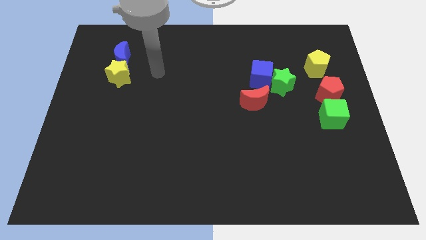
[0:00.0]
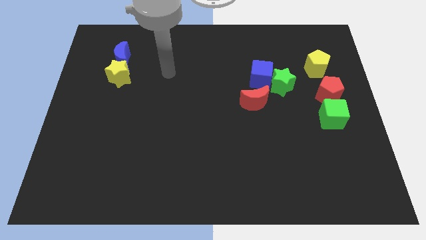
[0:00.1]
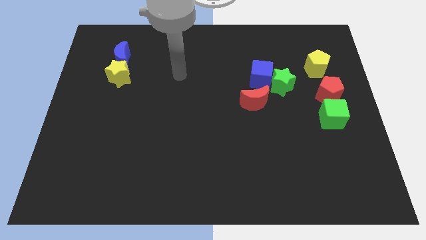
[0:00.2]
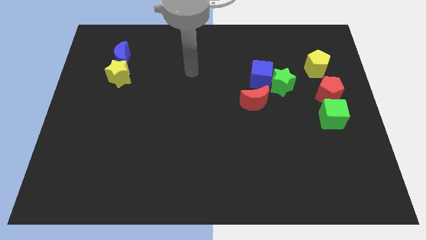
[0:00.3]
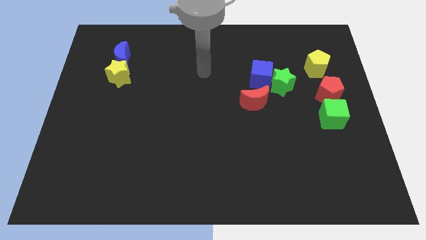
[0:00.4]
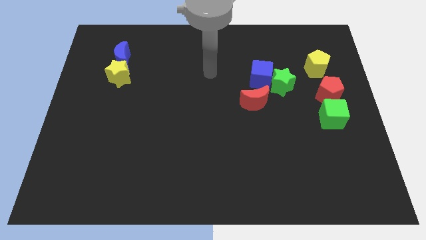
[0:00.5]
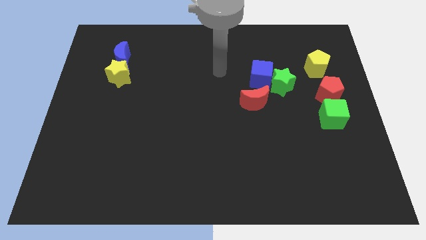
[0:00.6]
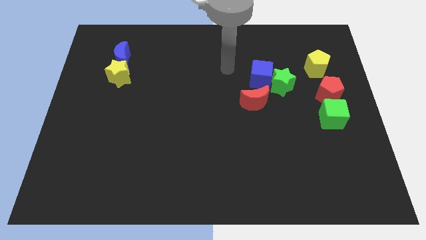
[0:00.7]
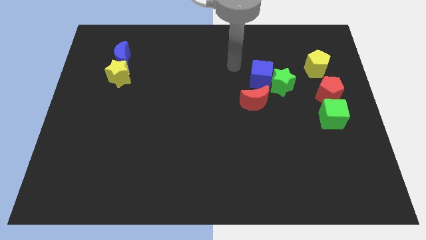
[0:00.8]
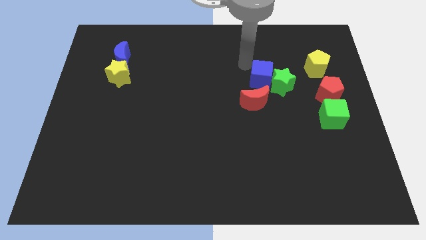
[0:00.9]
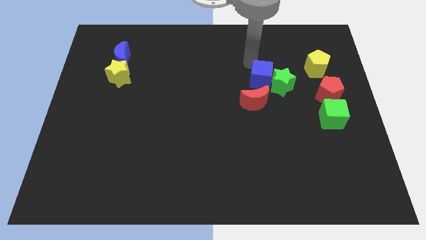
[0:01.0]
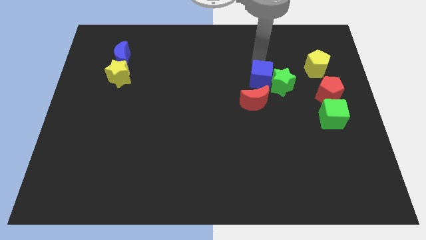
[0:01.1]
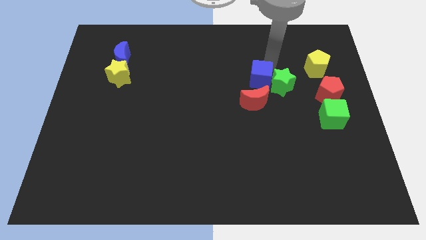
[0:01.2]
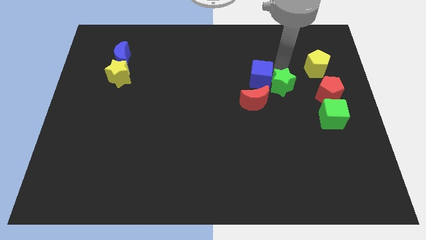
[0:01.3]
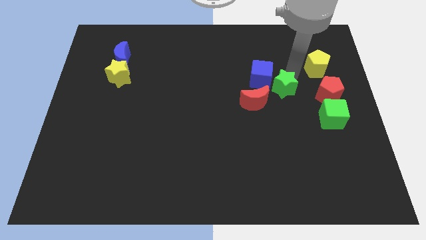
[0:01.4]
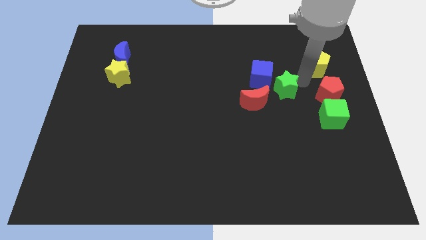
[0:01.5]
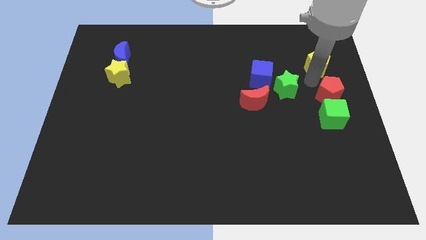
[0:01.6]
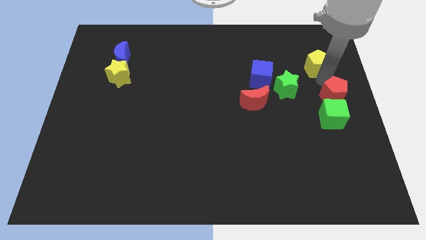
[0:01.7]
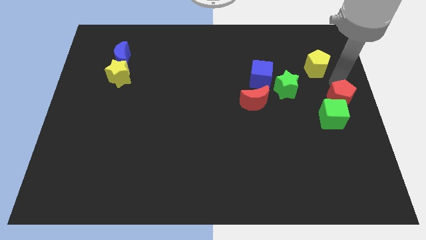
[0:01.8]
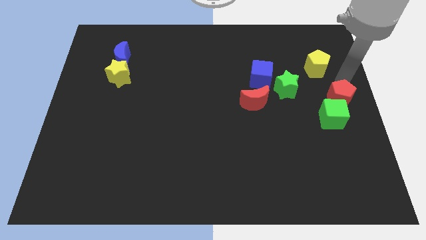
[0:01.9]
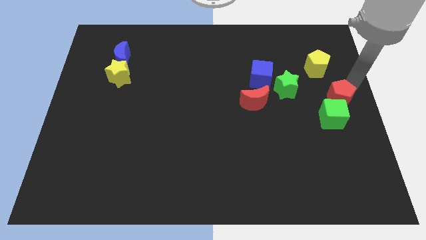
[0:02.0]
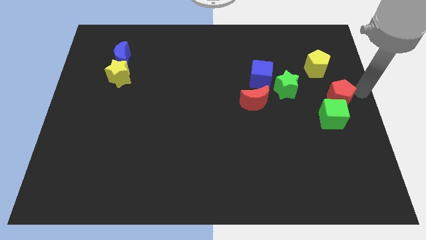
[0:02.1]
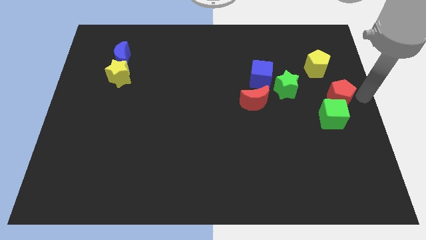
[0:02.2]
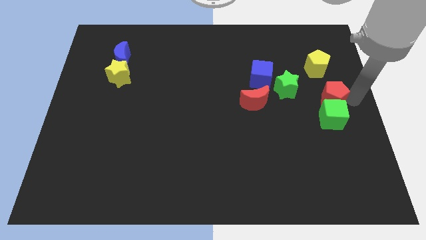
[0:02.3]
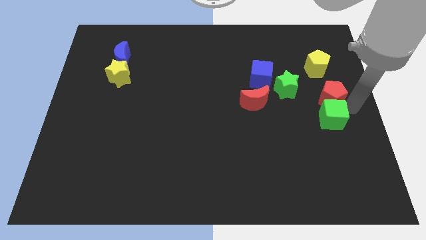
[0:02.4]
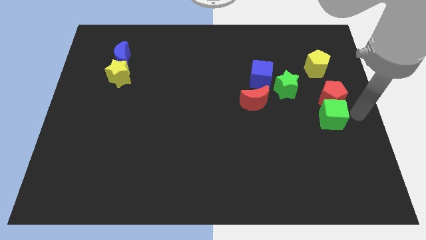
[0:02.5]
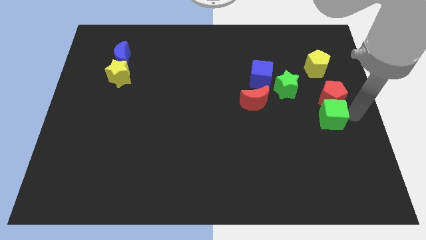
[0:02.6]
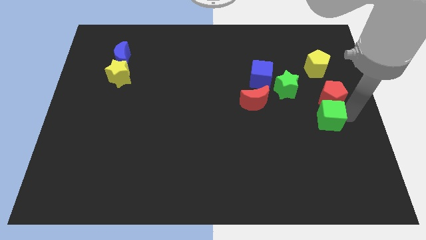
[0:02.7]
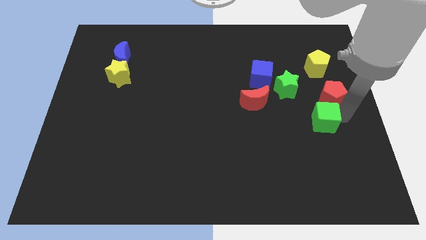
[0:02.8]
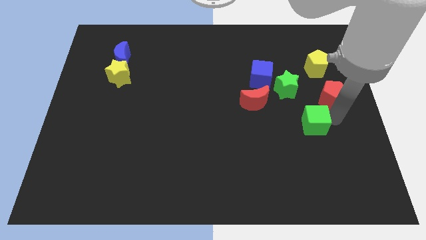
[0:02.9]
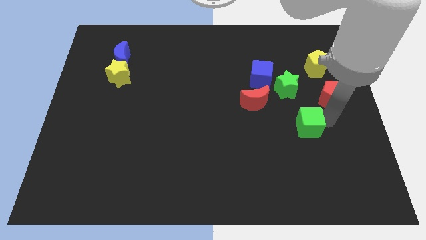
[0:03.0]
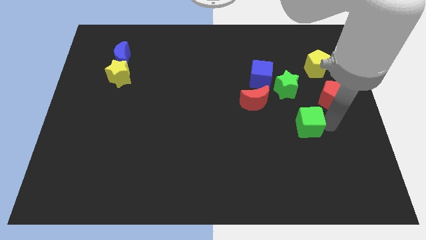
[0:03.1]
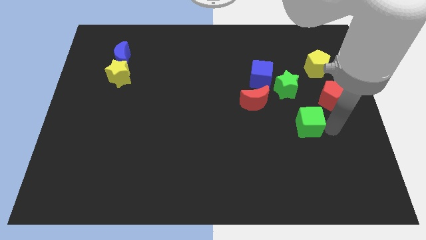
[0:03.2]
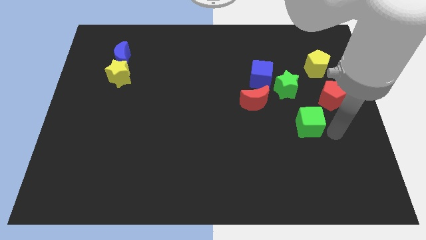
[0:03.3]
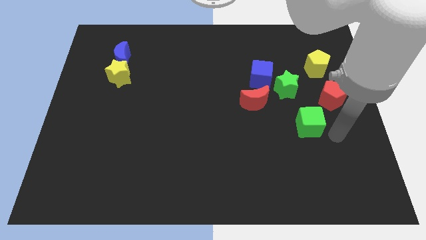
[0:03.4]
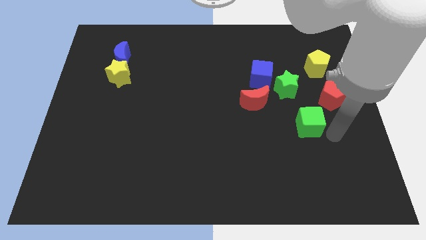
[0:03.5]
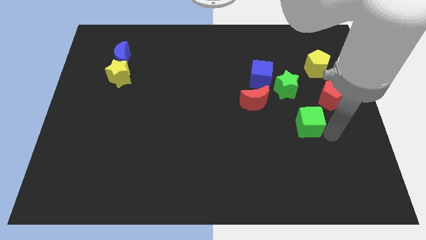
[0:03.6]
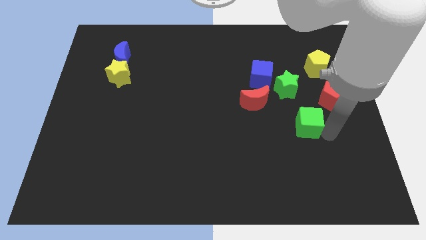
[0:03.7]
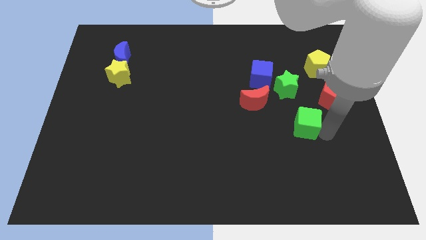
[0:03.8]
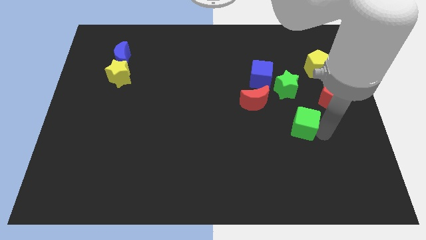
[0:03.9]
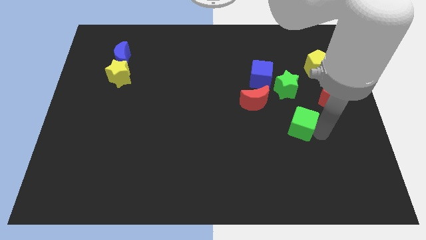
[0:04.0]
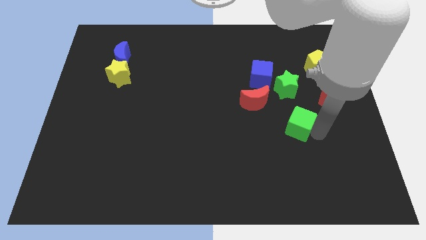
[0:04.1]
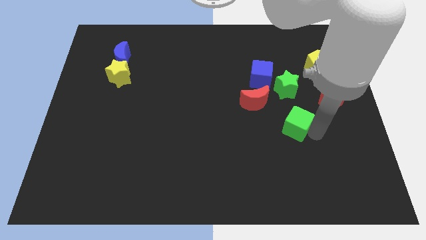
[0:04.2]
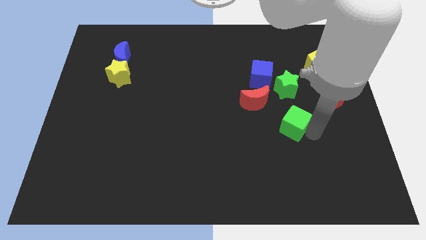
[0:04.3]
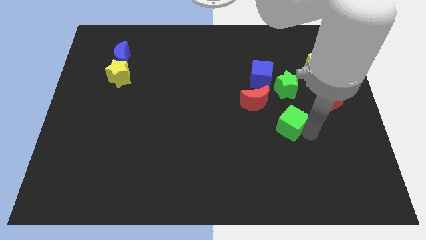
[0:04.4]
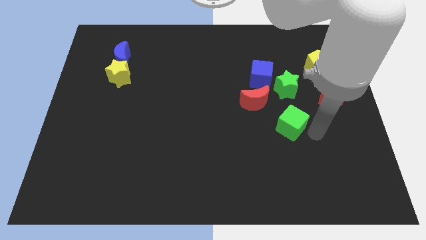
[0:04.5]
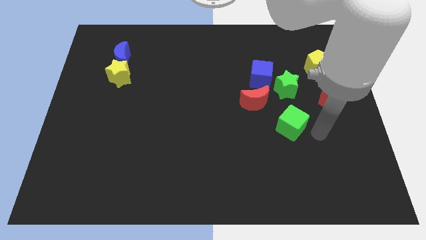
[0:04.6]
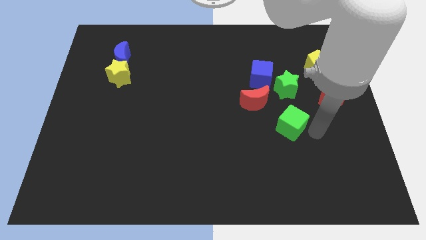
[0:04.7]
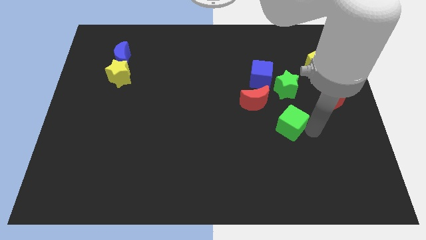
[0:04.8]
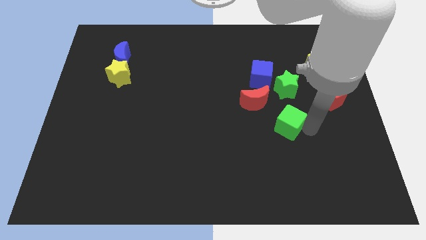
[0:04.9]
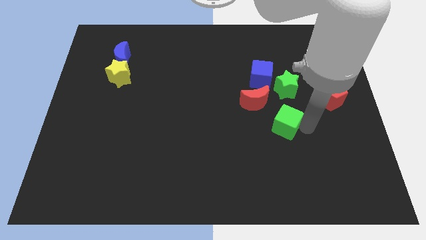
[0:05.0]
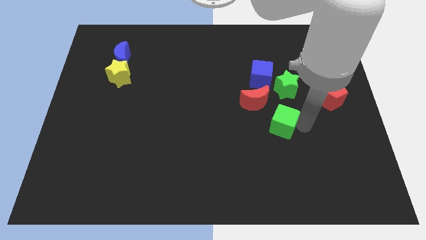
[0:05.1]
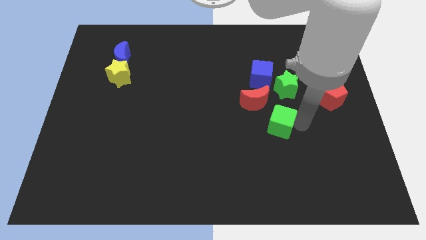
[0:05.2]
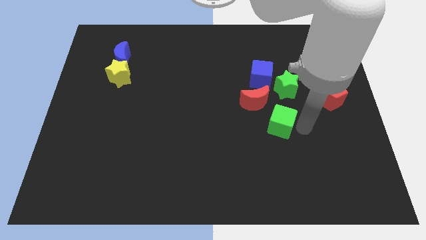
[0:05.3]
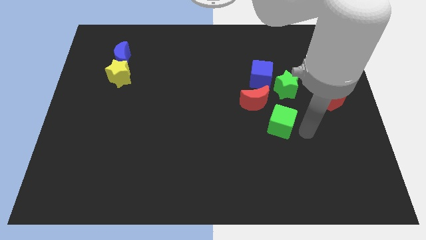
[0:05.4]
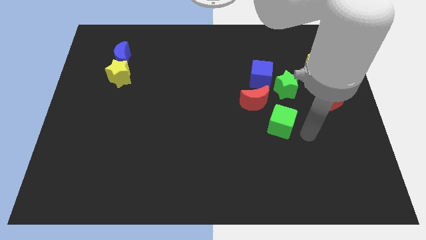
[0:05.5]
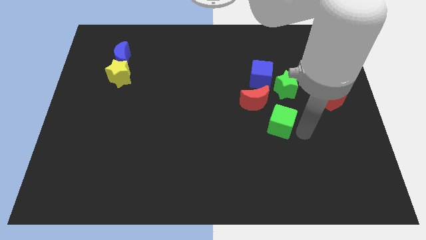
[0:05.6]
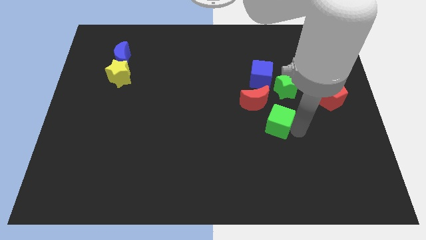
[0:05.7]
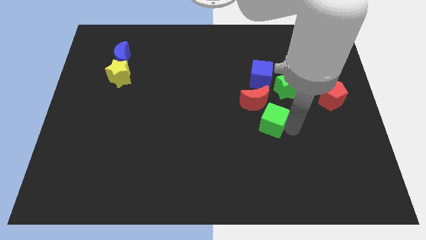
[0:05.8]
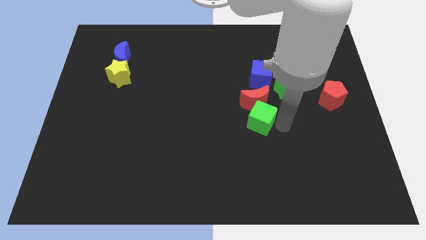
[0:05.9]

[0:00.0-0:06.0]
put the green cube to the middle

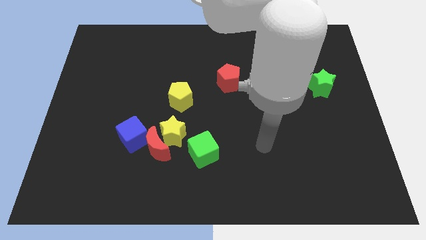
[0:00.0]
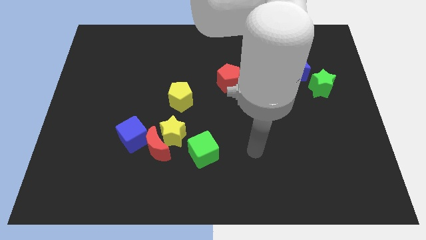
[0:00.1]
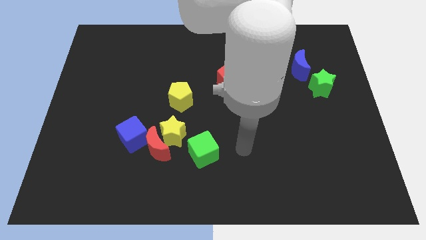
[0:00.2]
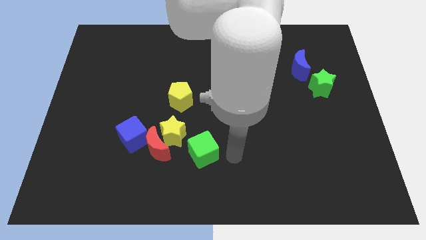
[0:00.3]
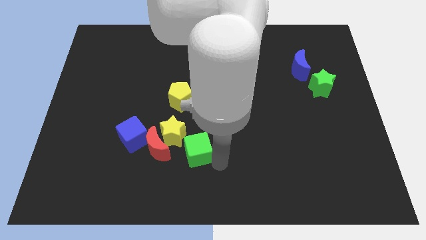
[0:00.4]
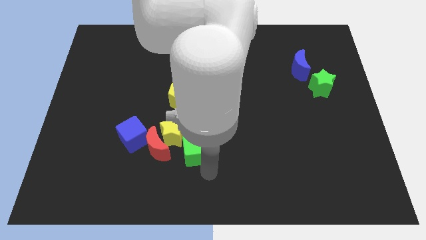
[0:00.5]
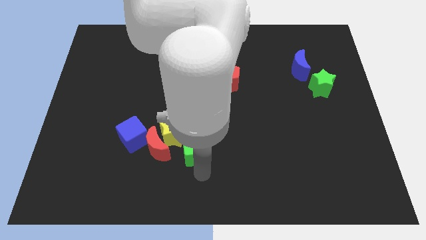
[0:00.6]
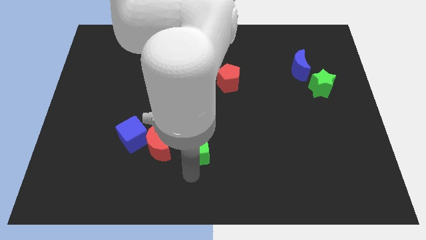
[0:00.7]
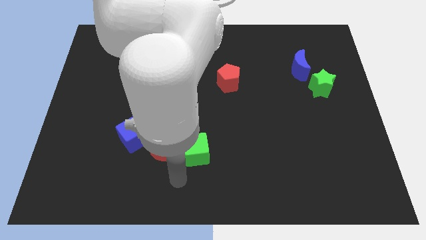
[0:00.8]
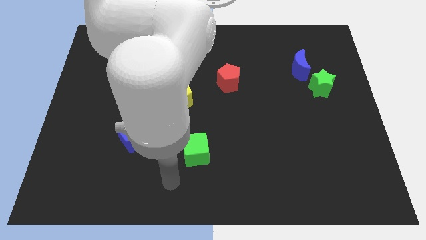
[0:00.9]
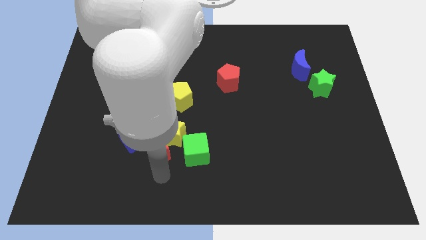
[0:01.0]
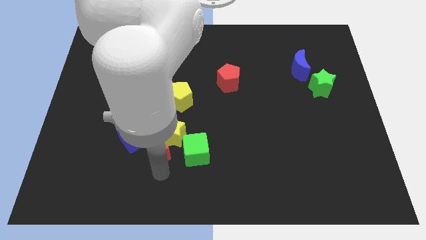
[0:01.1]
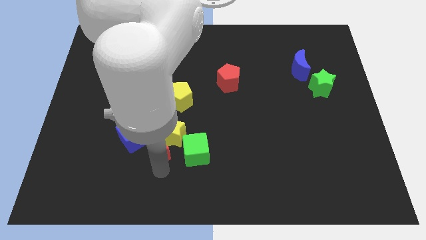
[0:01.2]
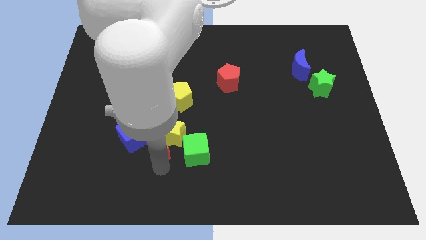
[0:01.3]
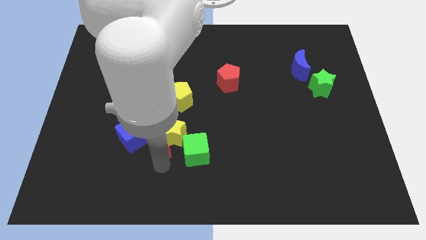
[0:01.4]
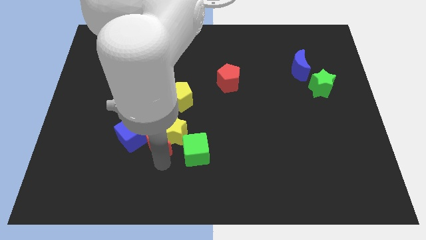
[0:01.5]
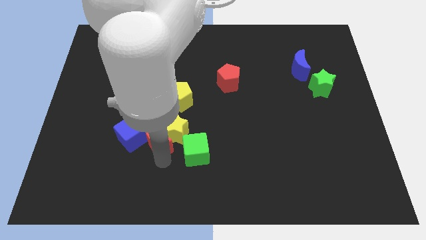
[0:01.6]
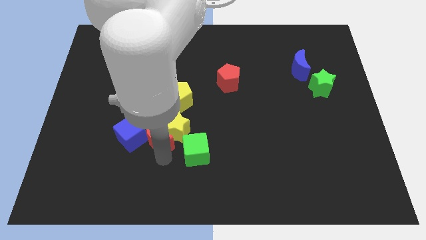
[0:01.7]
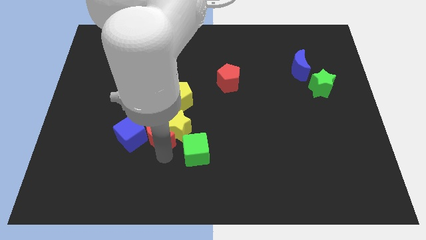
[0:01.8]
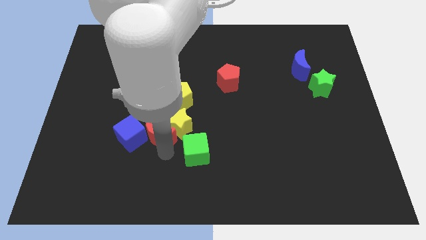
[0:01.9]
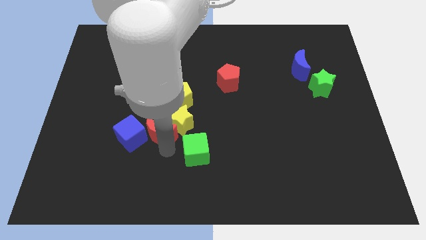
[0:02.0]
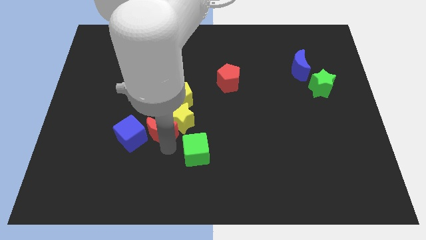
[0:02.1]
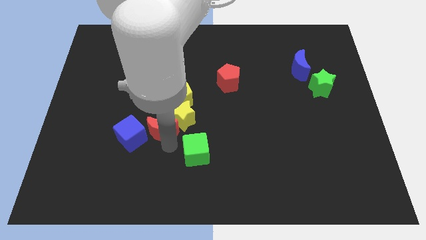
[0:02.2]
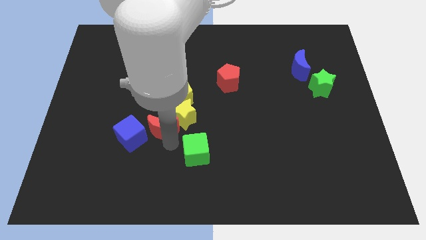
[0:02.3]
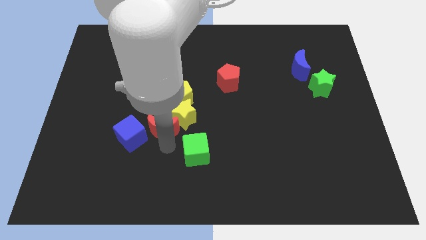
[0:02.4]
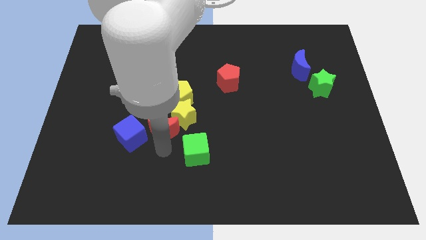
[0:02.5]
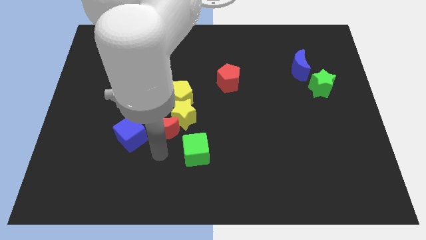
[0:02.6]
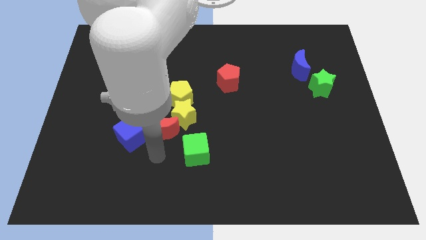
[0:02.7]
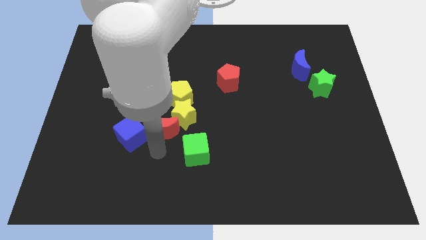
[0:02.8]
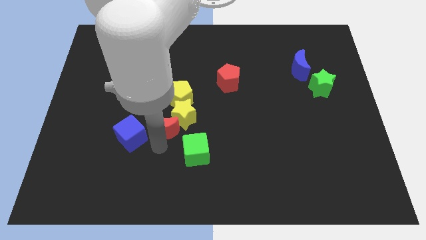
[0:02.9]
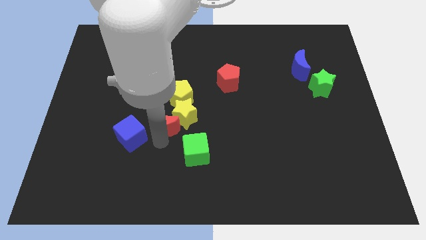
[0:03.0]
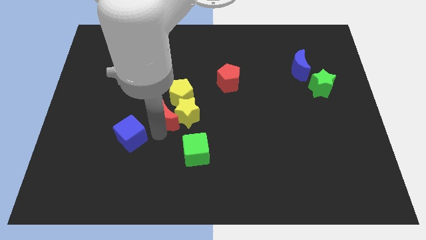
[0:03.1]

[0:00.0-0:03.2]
push the red moon to the middle
